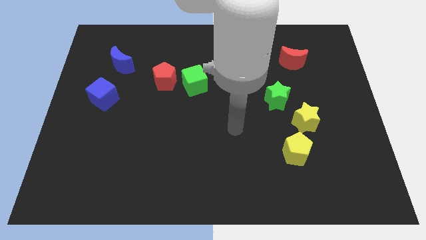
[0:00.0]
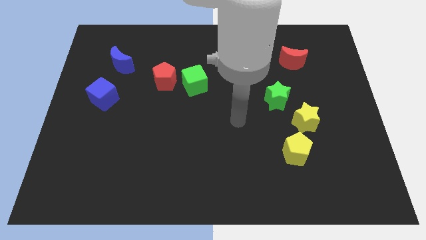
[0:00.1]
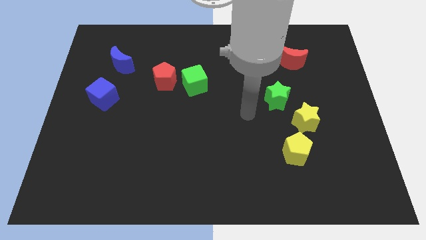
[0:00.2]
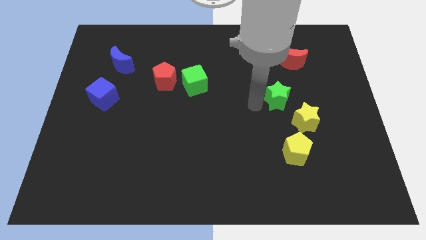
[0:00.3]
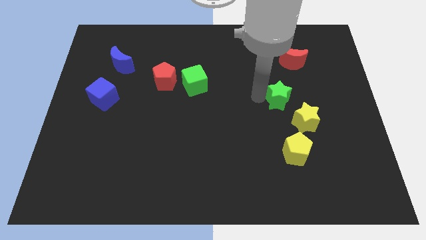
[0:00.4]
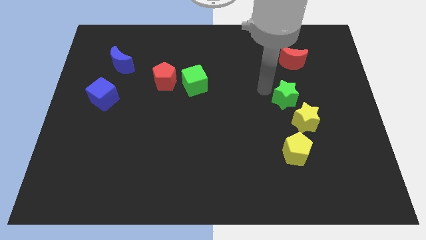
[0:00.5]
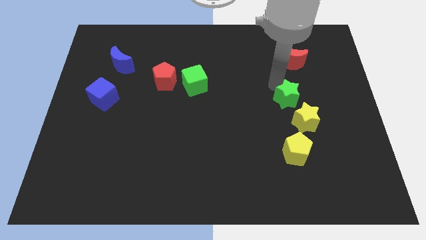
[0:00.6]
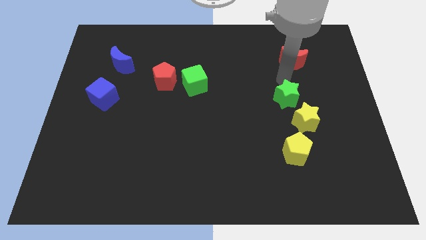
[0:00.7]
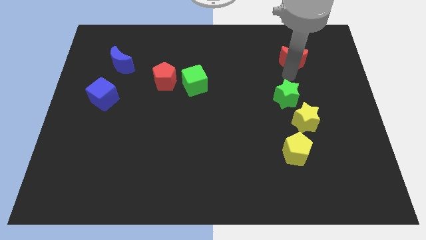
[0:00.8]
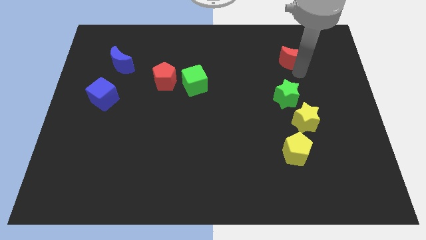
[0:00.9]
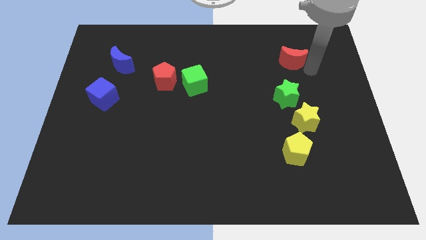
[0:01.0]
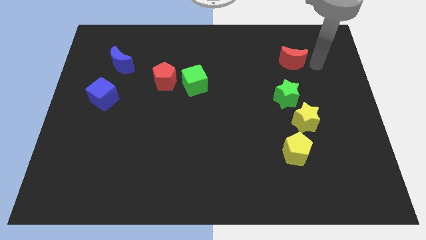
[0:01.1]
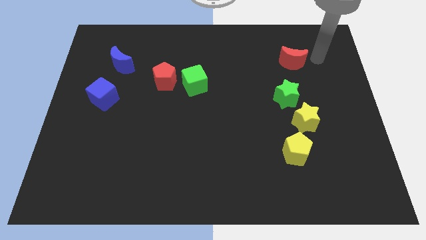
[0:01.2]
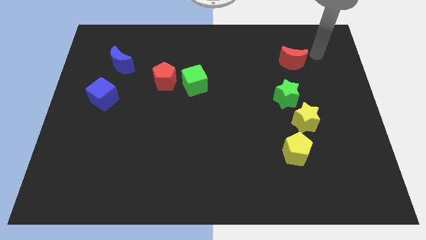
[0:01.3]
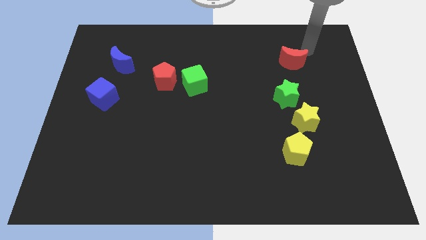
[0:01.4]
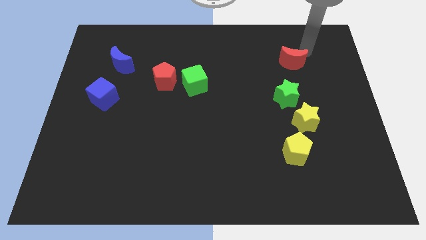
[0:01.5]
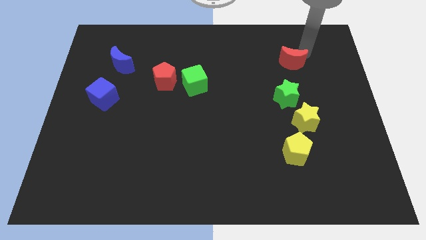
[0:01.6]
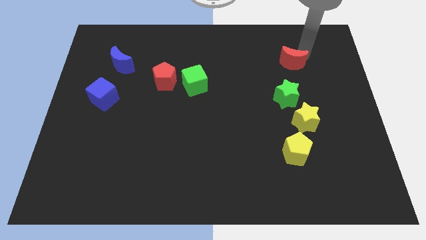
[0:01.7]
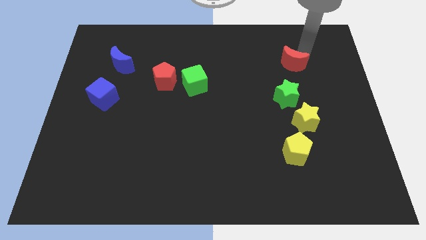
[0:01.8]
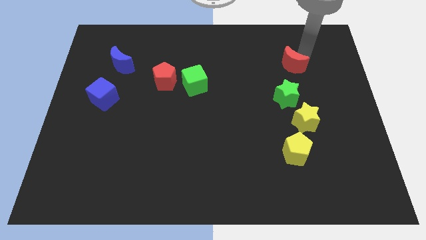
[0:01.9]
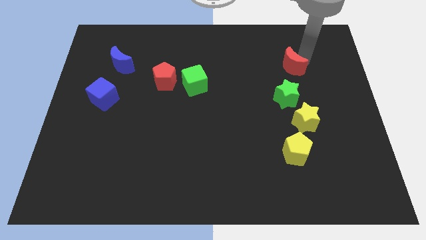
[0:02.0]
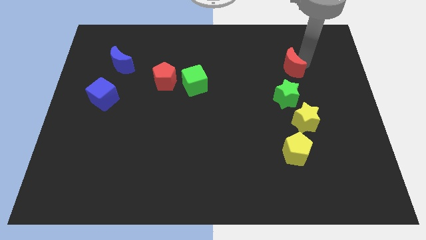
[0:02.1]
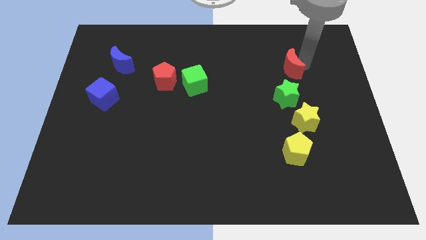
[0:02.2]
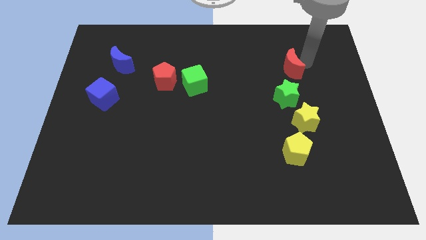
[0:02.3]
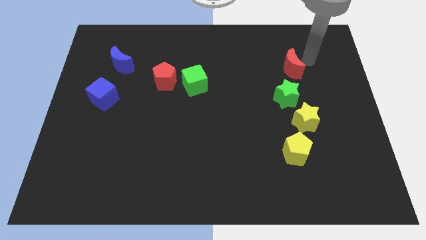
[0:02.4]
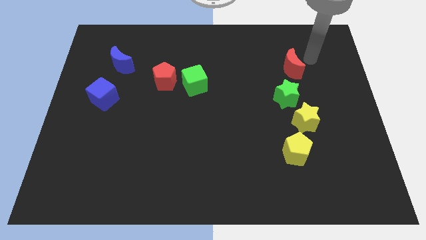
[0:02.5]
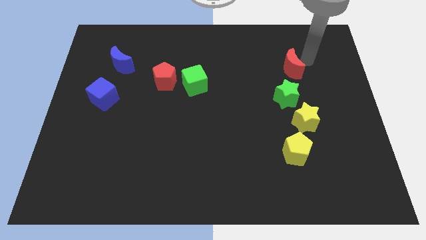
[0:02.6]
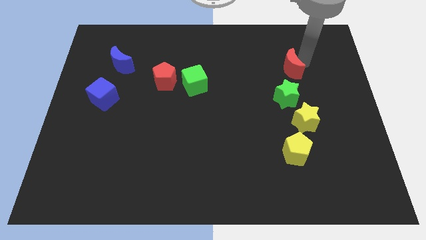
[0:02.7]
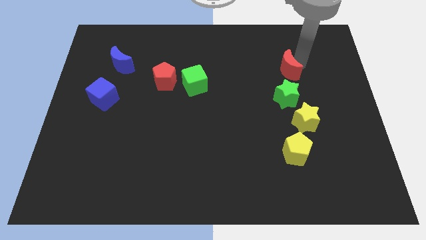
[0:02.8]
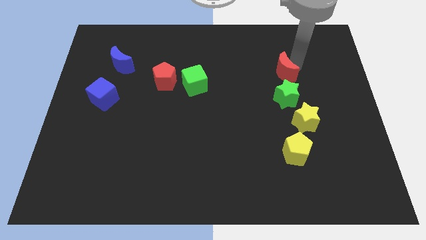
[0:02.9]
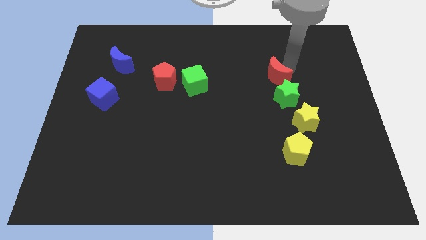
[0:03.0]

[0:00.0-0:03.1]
slightly move the red moon down and to the left diagonally

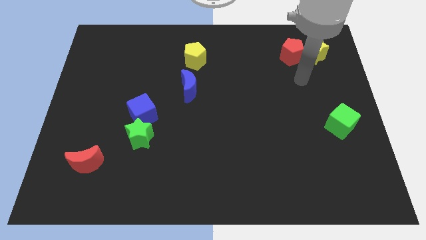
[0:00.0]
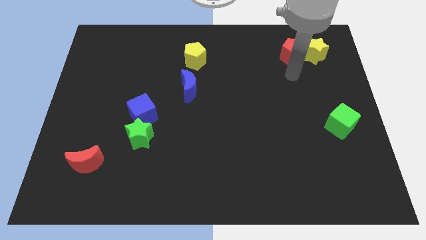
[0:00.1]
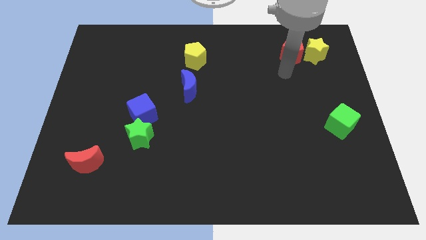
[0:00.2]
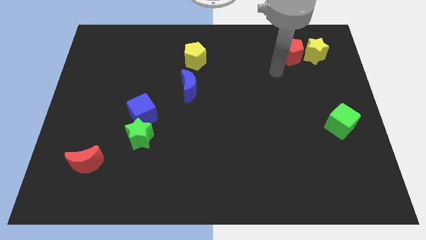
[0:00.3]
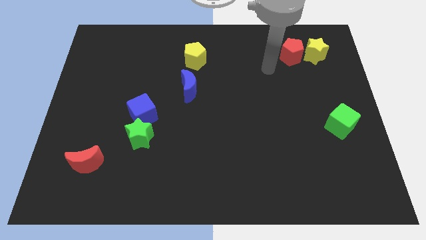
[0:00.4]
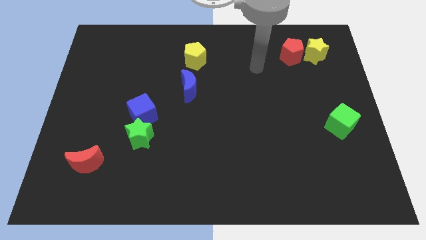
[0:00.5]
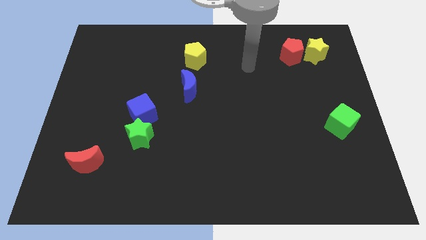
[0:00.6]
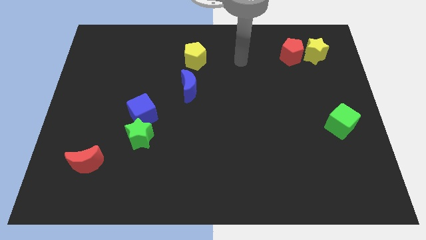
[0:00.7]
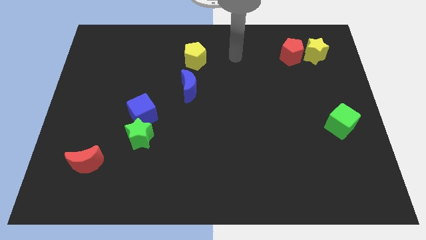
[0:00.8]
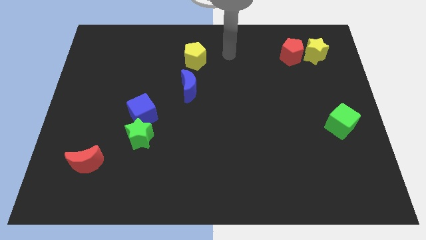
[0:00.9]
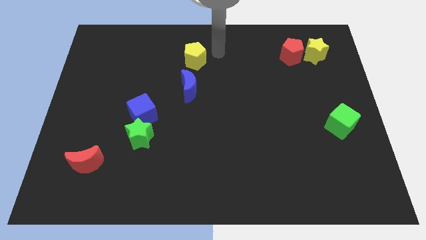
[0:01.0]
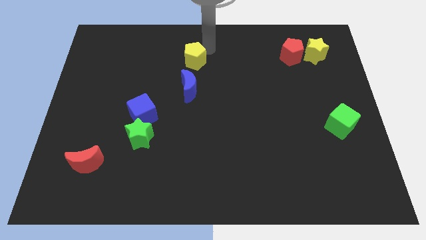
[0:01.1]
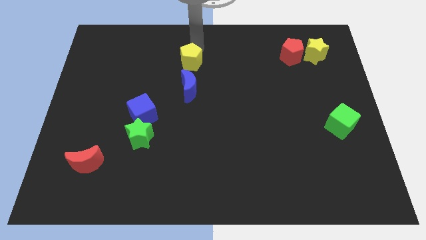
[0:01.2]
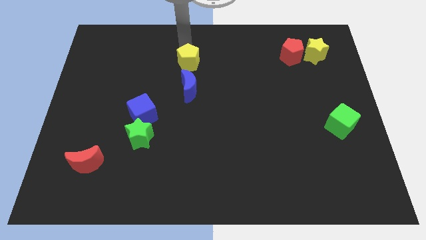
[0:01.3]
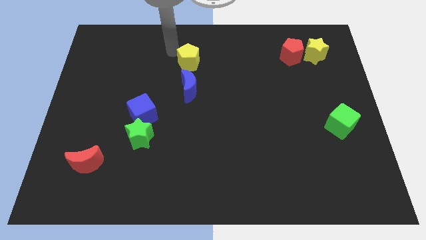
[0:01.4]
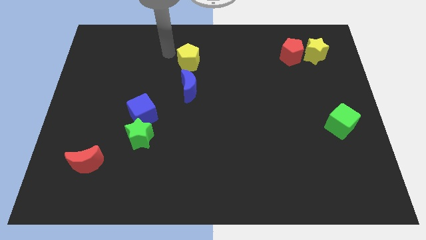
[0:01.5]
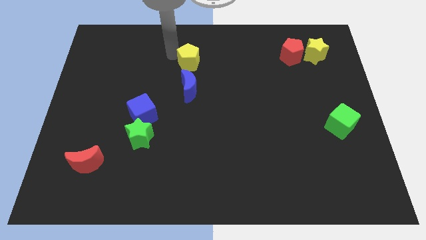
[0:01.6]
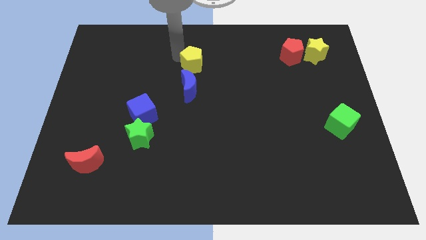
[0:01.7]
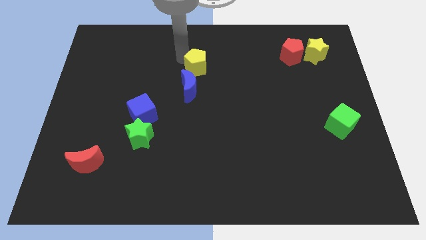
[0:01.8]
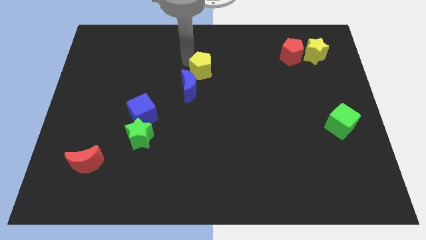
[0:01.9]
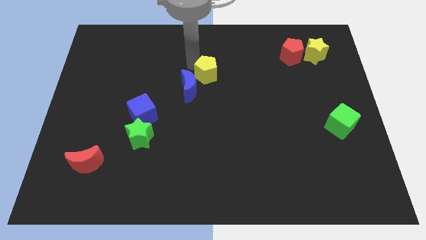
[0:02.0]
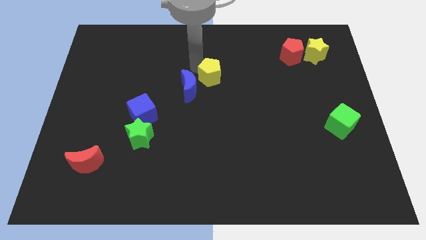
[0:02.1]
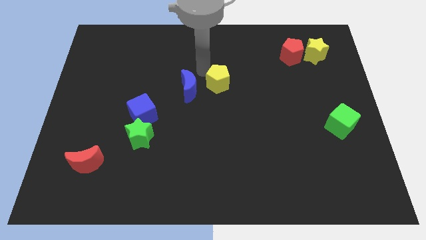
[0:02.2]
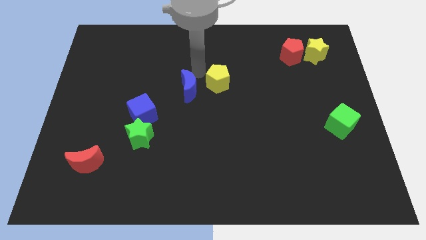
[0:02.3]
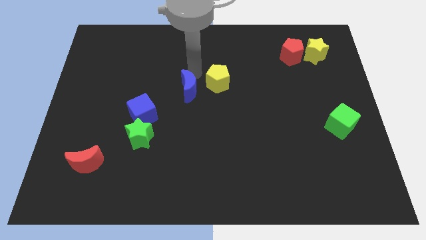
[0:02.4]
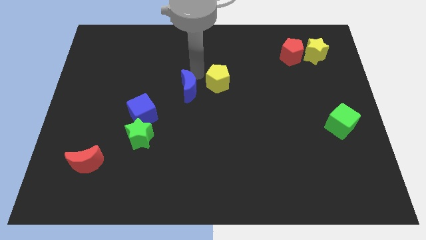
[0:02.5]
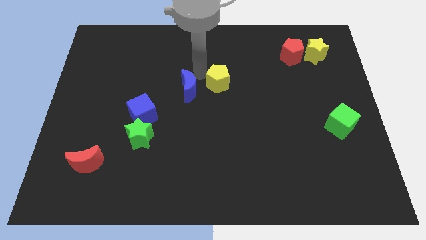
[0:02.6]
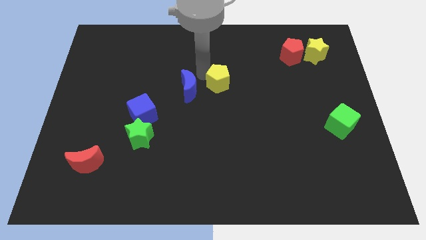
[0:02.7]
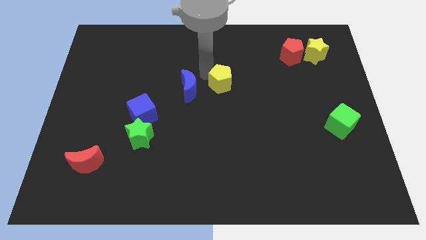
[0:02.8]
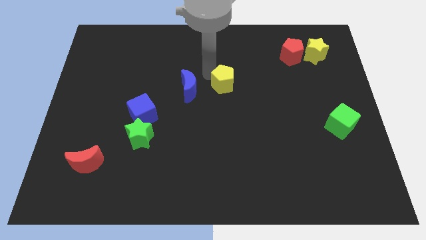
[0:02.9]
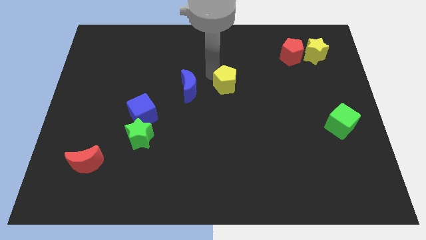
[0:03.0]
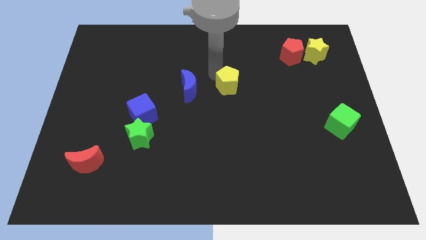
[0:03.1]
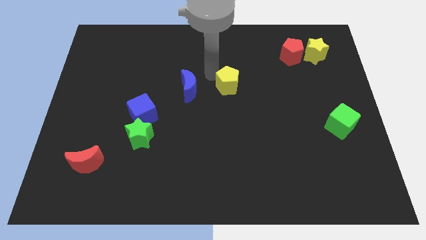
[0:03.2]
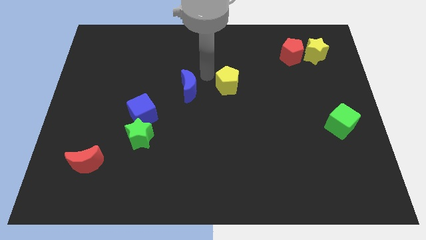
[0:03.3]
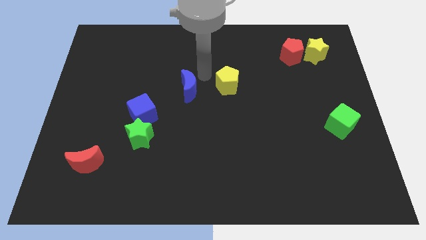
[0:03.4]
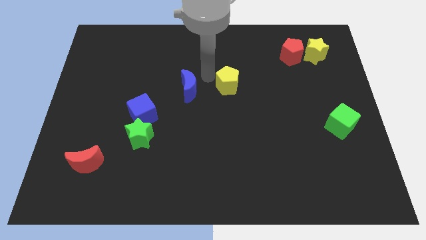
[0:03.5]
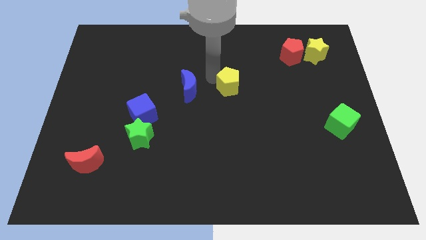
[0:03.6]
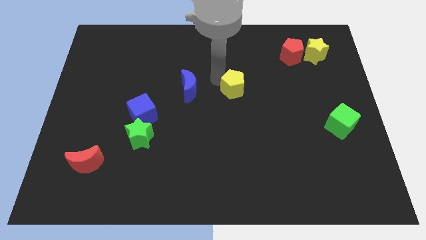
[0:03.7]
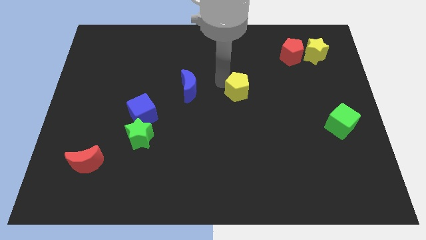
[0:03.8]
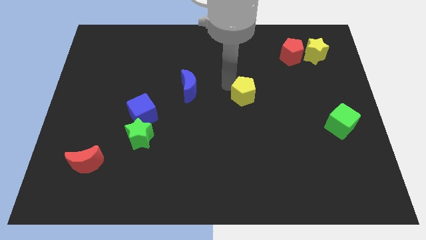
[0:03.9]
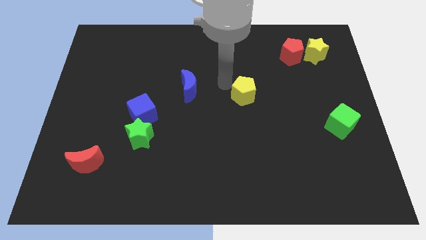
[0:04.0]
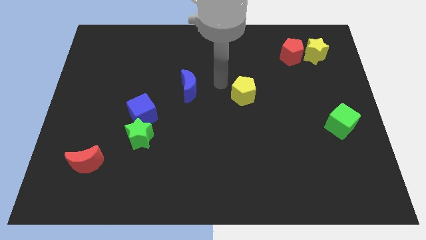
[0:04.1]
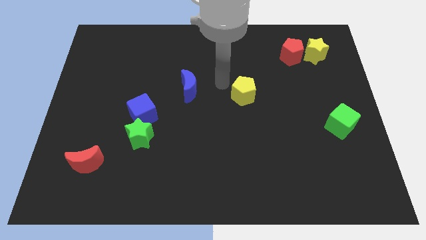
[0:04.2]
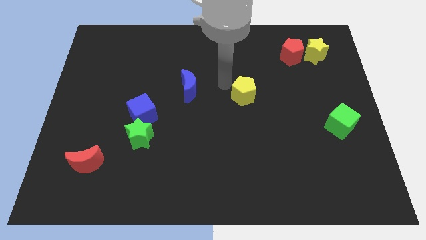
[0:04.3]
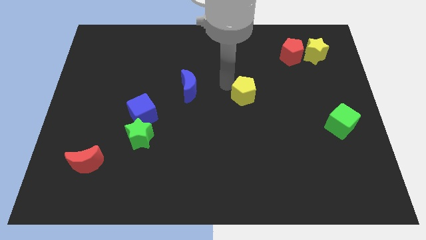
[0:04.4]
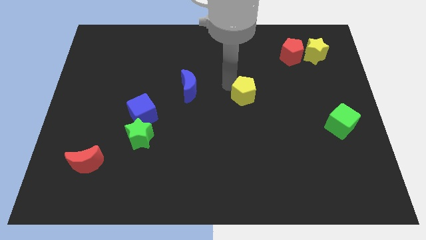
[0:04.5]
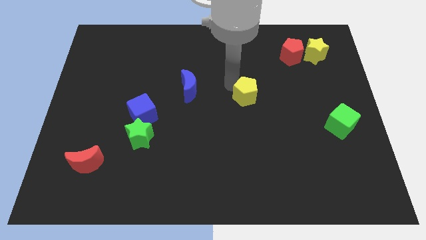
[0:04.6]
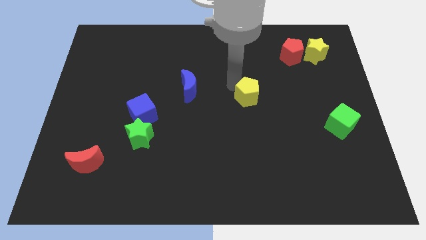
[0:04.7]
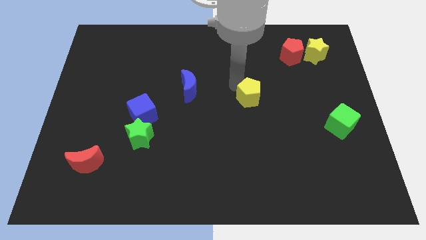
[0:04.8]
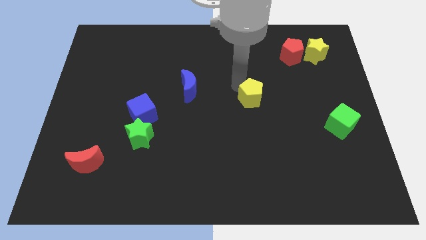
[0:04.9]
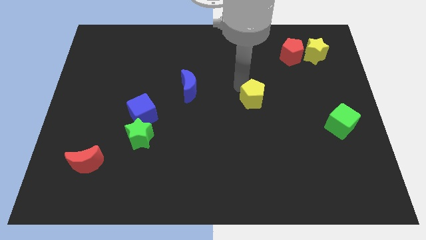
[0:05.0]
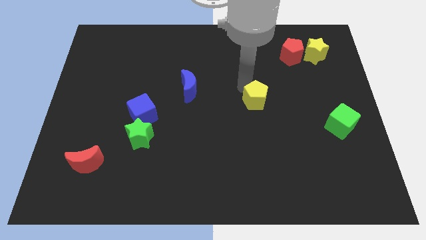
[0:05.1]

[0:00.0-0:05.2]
move the yellow pentagon diagonally downwards and to the right

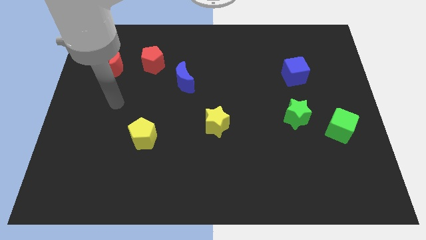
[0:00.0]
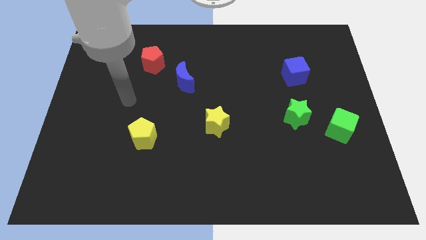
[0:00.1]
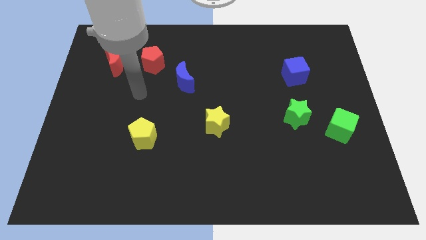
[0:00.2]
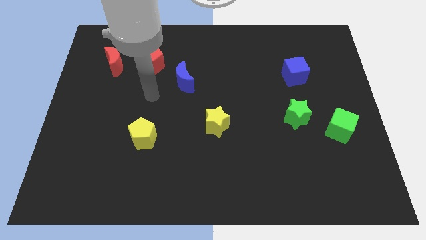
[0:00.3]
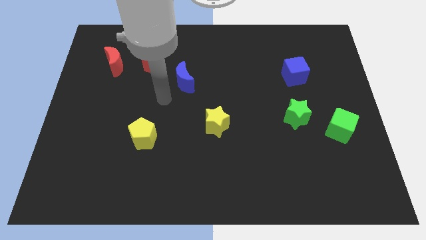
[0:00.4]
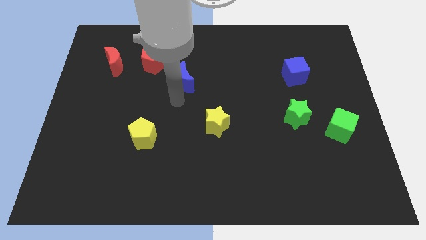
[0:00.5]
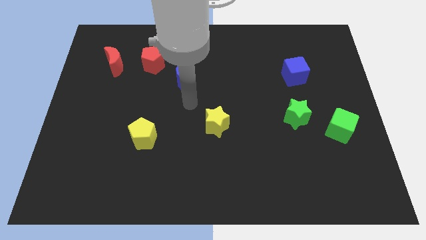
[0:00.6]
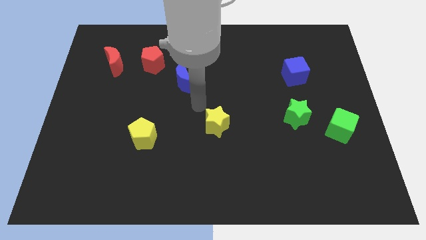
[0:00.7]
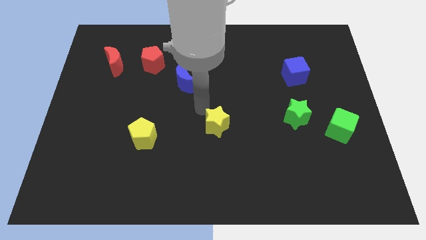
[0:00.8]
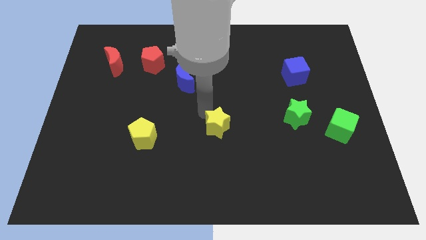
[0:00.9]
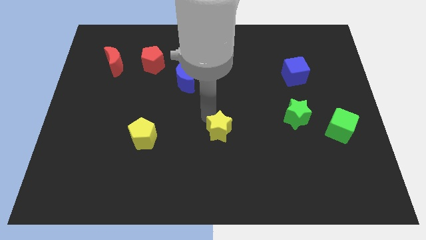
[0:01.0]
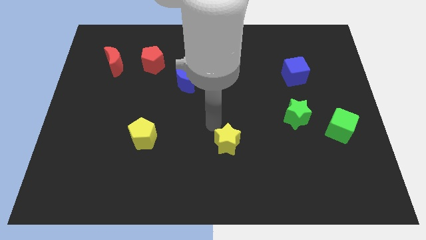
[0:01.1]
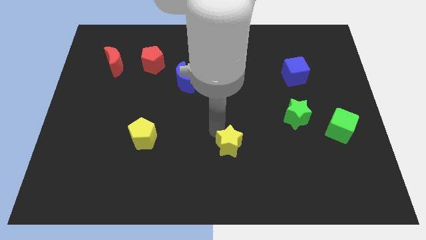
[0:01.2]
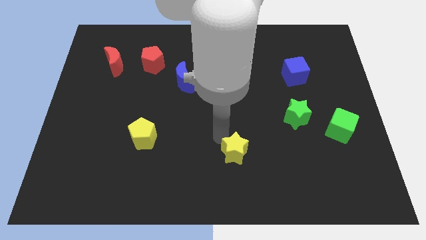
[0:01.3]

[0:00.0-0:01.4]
move the yellow star down and to the right diagonally a bit
